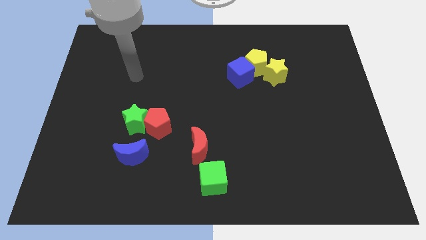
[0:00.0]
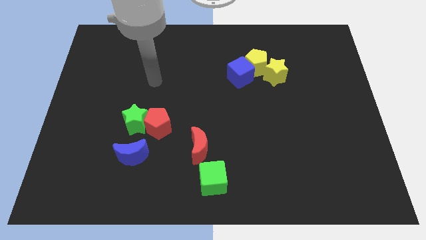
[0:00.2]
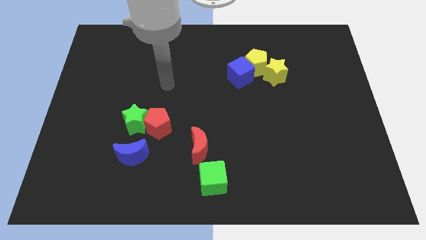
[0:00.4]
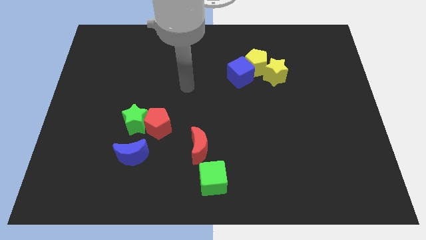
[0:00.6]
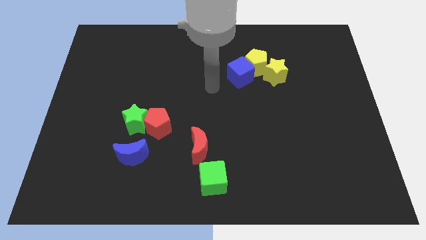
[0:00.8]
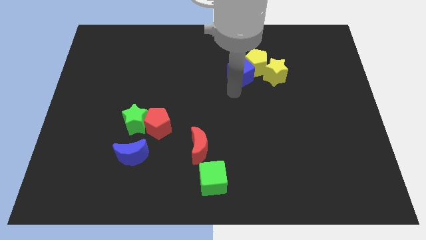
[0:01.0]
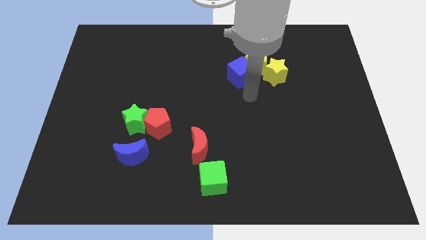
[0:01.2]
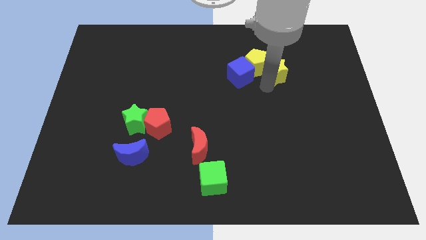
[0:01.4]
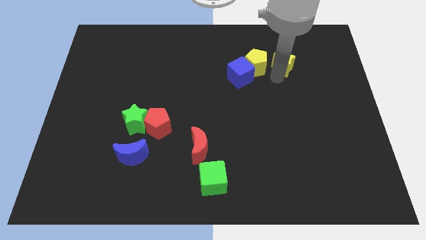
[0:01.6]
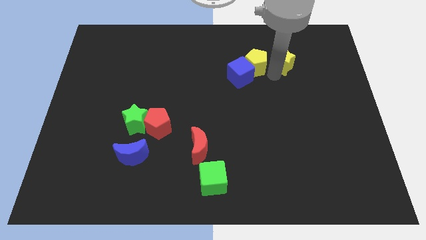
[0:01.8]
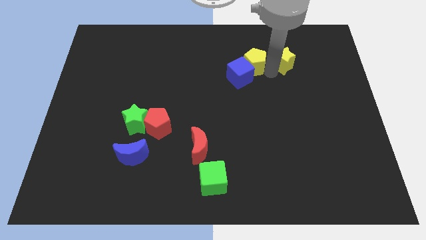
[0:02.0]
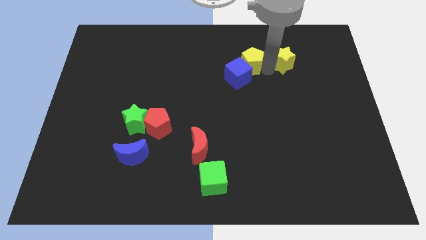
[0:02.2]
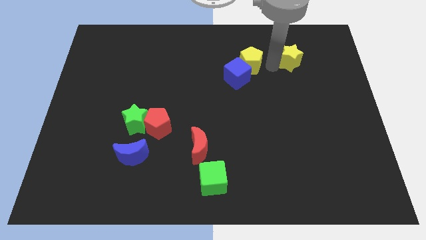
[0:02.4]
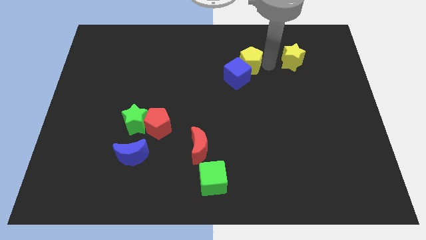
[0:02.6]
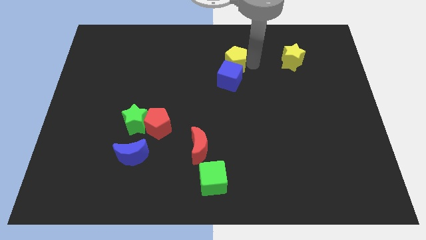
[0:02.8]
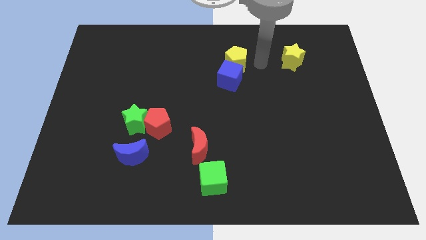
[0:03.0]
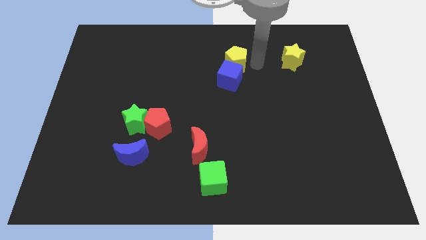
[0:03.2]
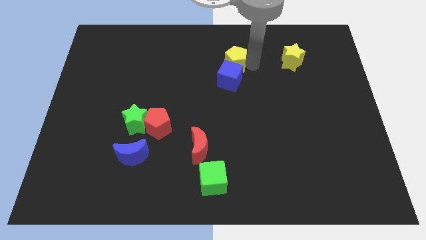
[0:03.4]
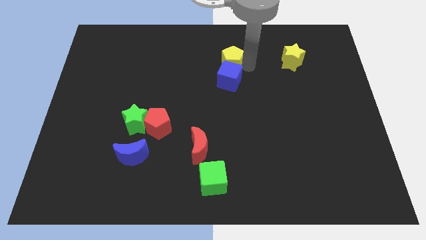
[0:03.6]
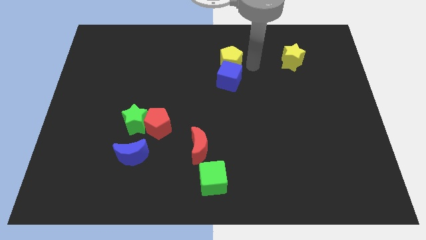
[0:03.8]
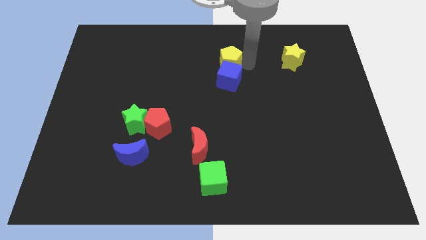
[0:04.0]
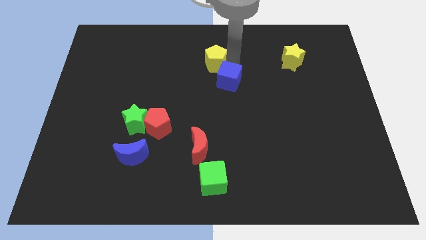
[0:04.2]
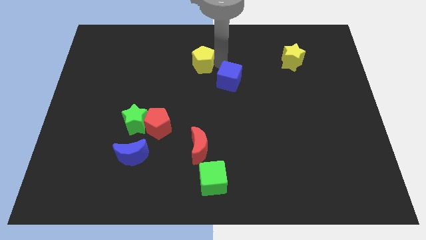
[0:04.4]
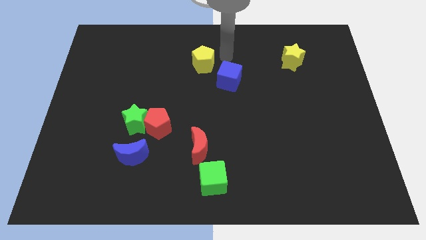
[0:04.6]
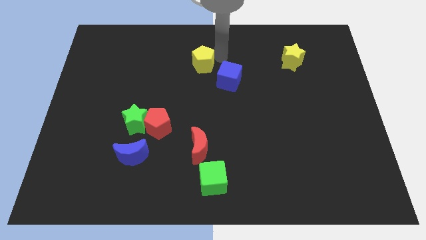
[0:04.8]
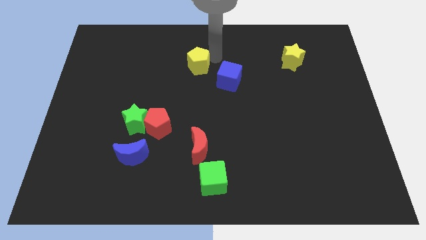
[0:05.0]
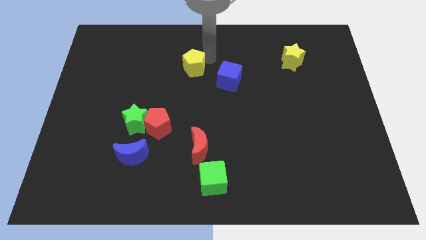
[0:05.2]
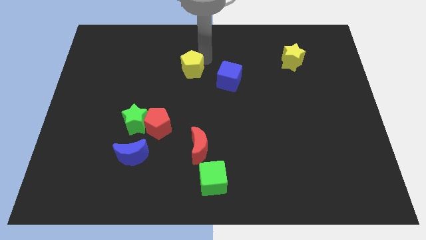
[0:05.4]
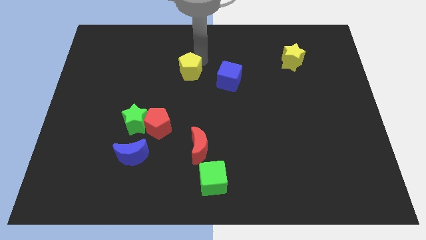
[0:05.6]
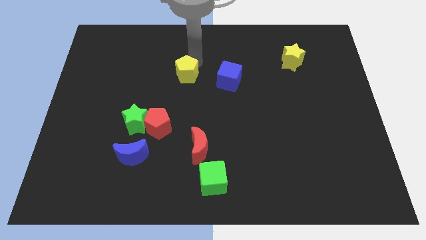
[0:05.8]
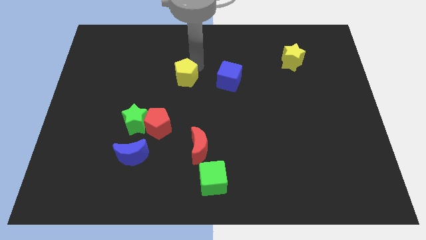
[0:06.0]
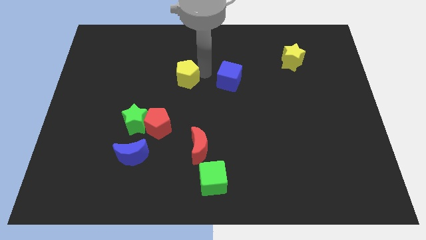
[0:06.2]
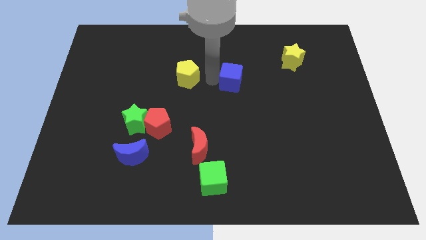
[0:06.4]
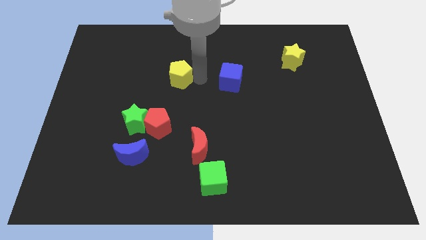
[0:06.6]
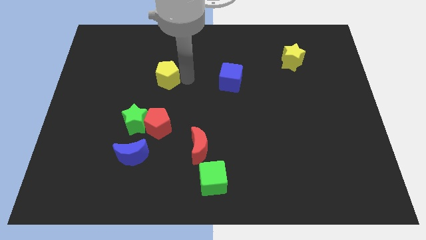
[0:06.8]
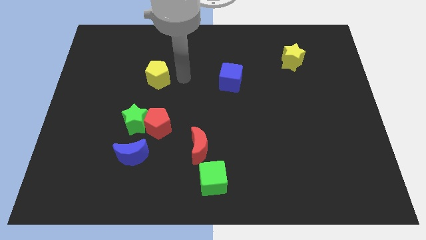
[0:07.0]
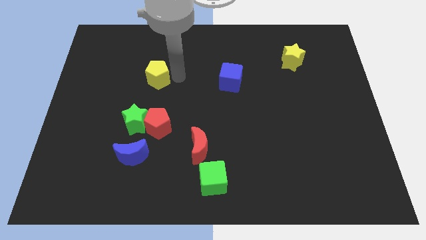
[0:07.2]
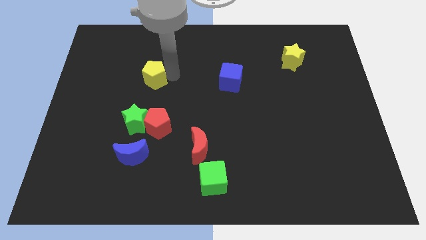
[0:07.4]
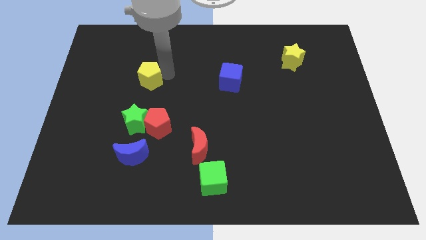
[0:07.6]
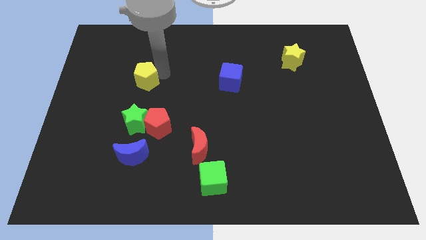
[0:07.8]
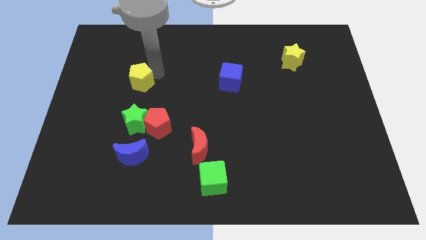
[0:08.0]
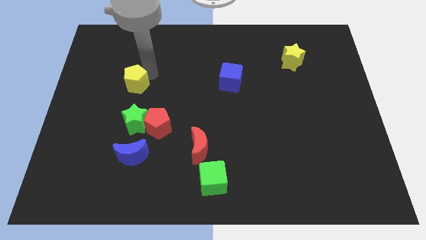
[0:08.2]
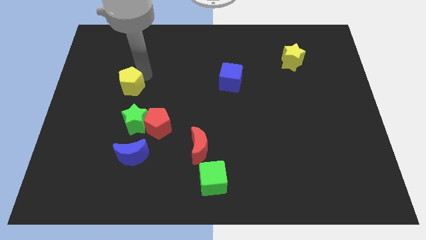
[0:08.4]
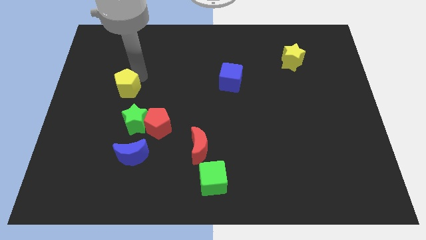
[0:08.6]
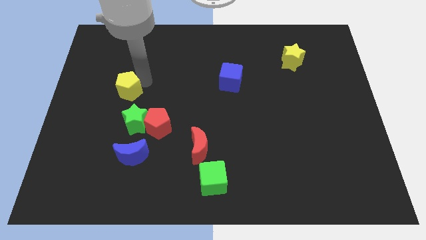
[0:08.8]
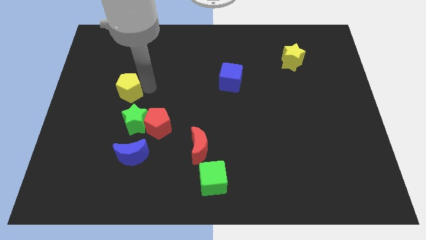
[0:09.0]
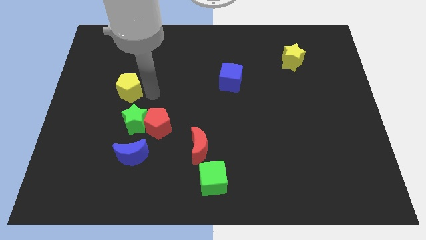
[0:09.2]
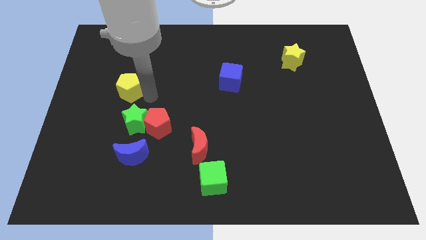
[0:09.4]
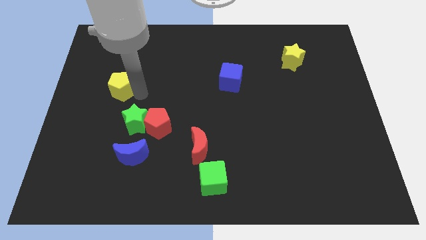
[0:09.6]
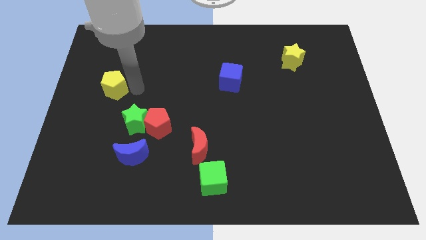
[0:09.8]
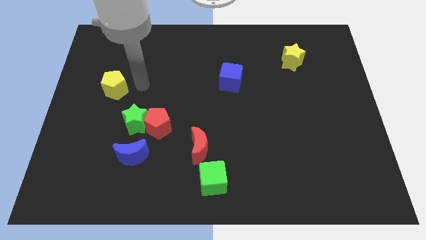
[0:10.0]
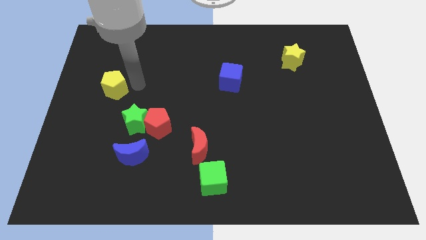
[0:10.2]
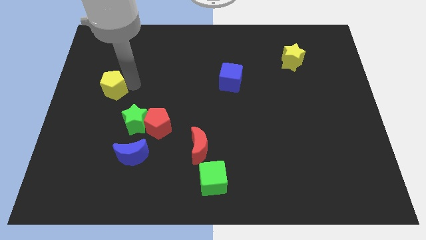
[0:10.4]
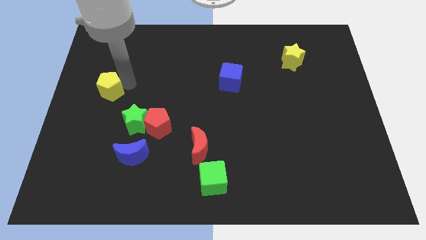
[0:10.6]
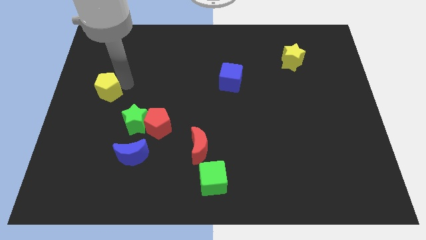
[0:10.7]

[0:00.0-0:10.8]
push the yellow pentagon to the left side
